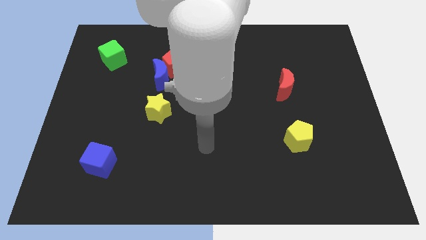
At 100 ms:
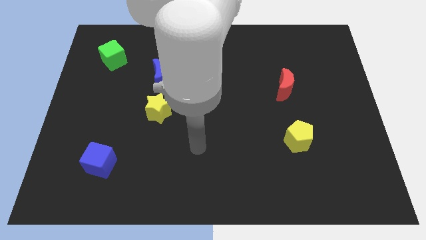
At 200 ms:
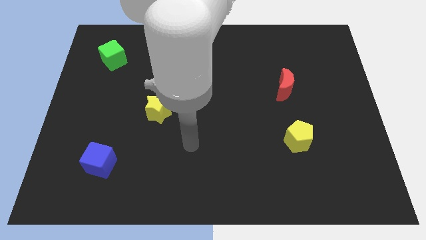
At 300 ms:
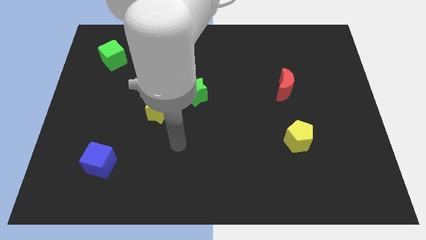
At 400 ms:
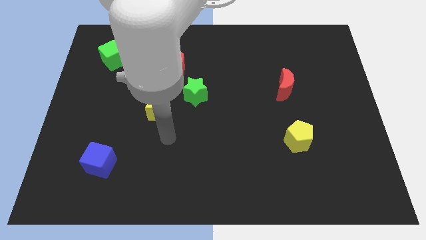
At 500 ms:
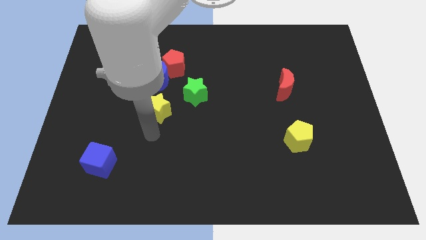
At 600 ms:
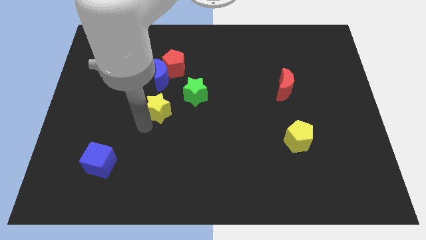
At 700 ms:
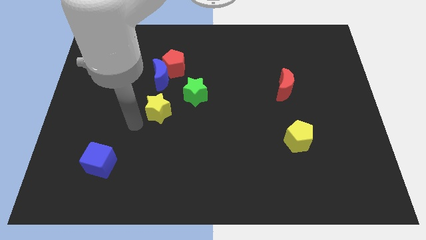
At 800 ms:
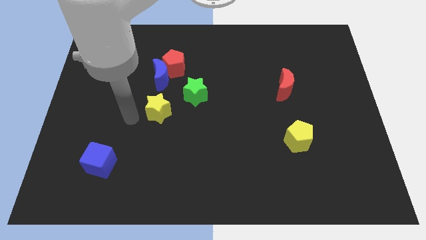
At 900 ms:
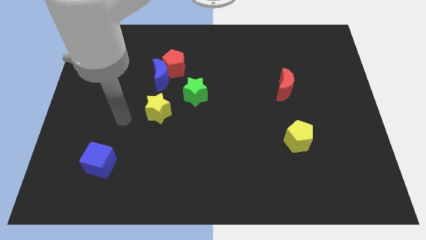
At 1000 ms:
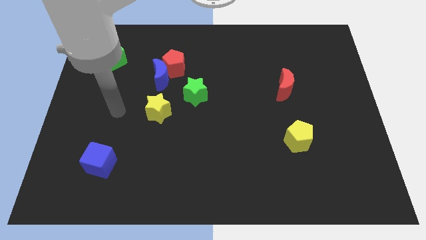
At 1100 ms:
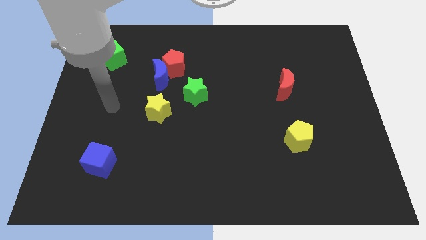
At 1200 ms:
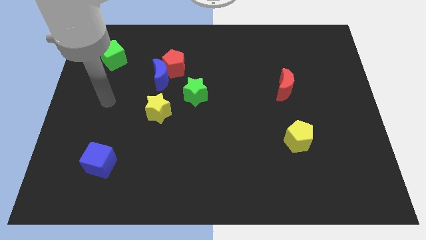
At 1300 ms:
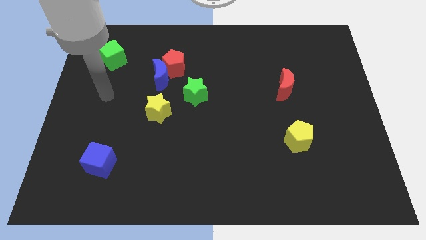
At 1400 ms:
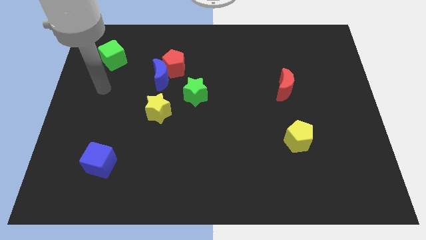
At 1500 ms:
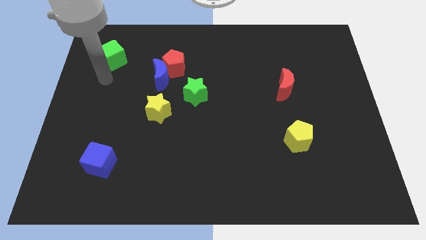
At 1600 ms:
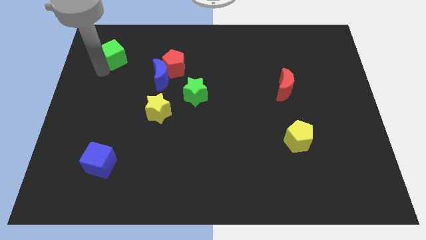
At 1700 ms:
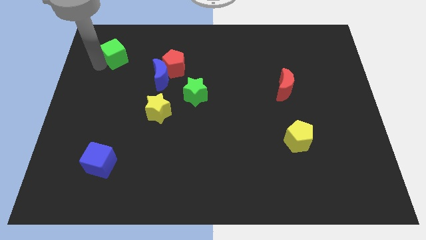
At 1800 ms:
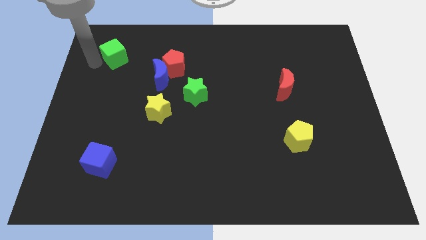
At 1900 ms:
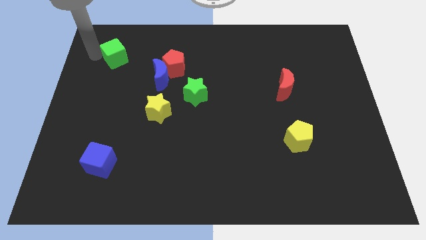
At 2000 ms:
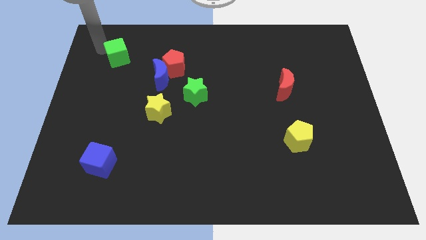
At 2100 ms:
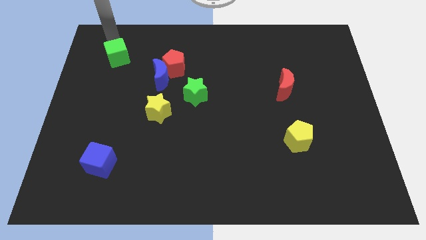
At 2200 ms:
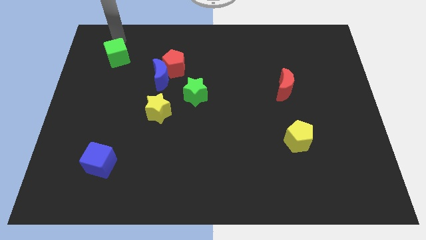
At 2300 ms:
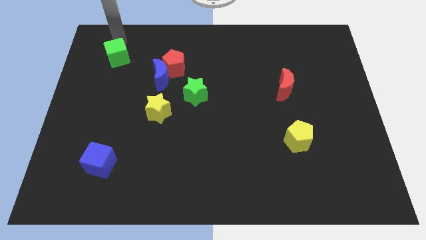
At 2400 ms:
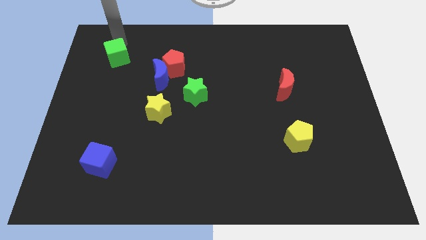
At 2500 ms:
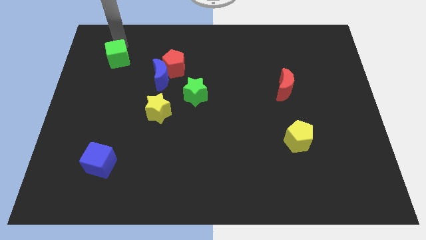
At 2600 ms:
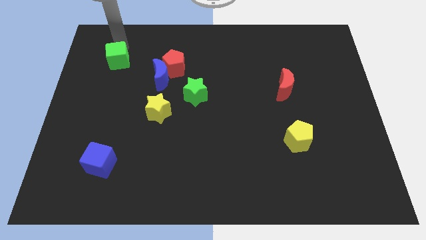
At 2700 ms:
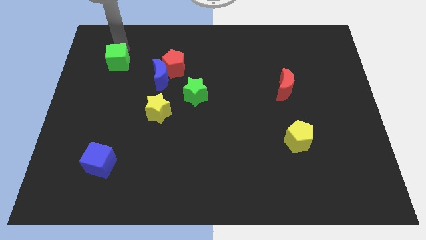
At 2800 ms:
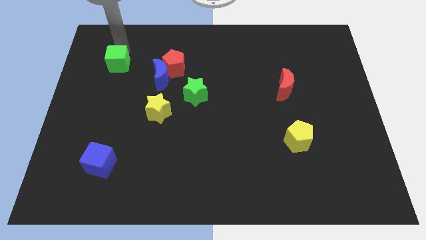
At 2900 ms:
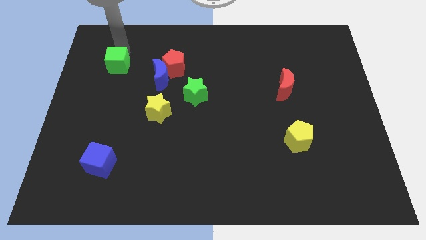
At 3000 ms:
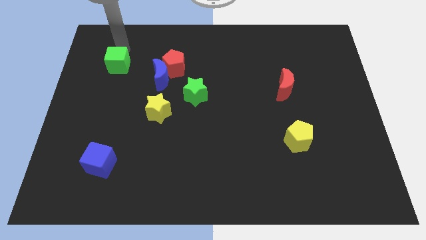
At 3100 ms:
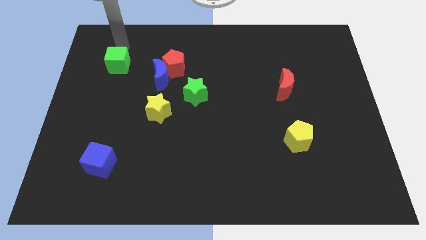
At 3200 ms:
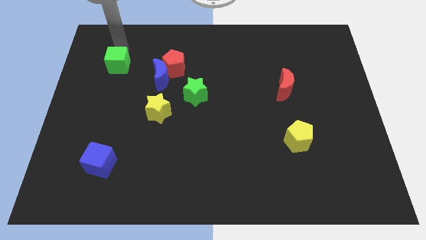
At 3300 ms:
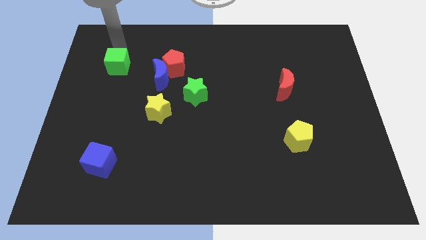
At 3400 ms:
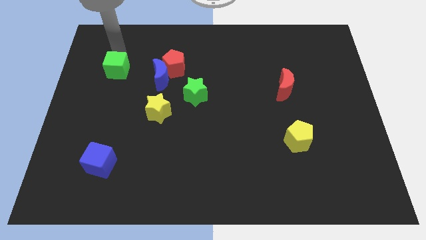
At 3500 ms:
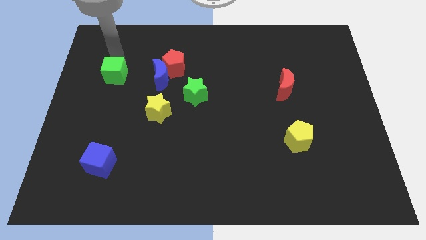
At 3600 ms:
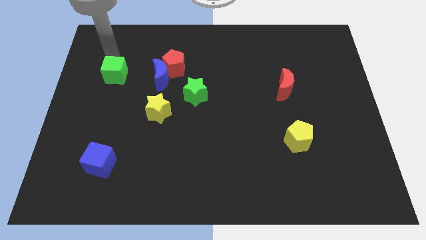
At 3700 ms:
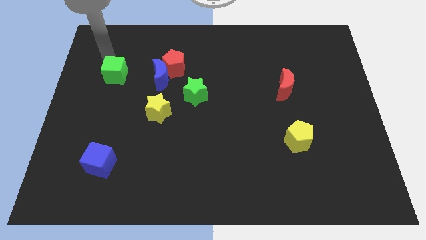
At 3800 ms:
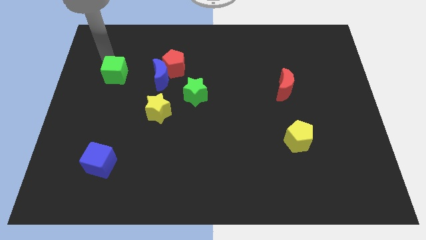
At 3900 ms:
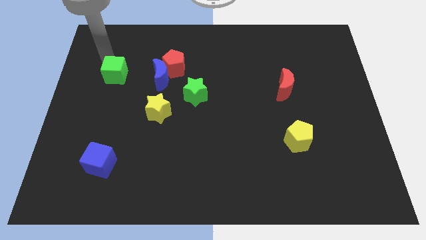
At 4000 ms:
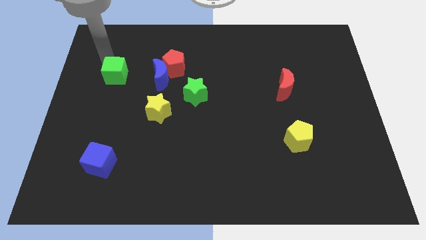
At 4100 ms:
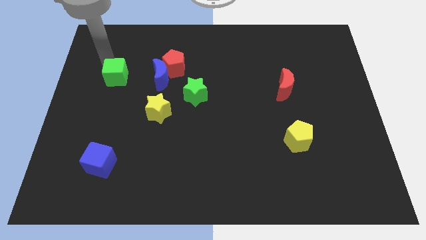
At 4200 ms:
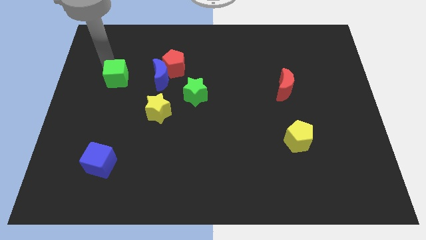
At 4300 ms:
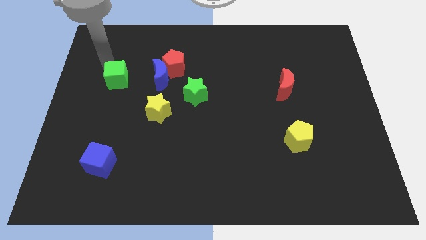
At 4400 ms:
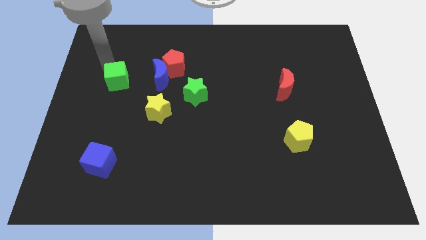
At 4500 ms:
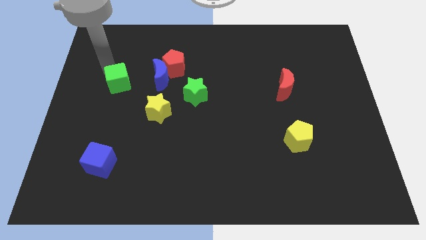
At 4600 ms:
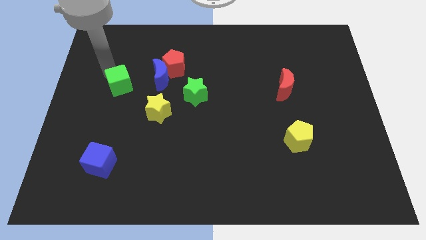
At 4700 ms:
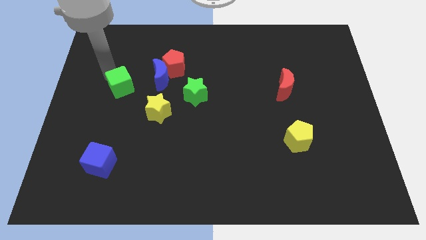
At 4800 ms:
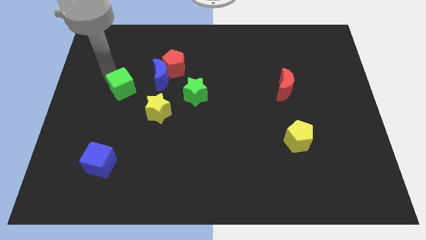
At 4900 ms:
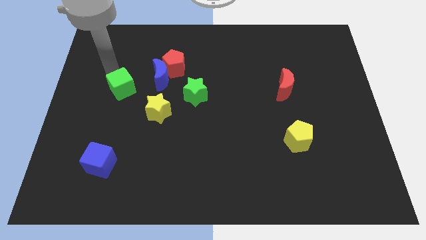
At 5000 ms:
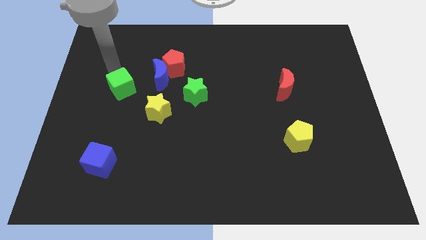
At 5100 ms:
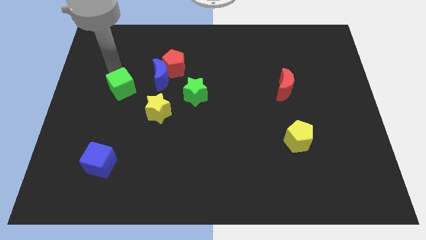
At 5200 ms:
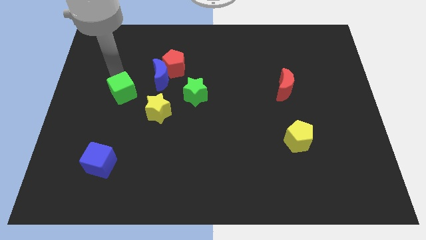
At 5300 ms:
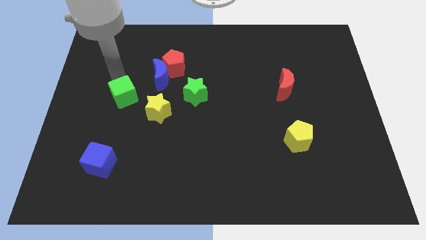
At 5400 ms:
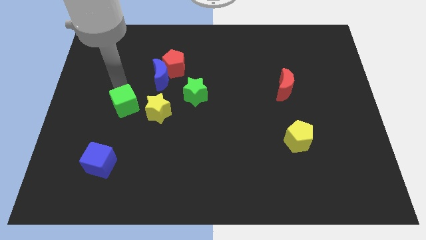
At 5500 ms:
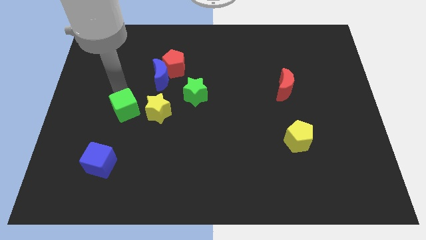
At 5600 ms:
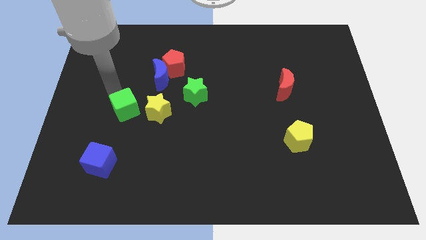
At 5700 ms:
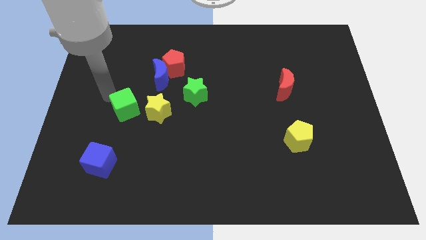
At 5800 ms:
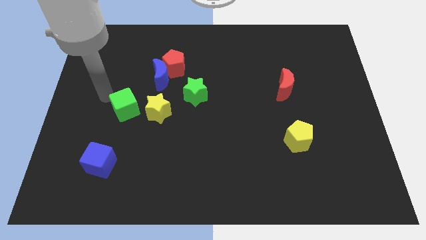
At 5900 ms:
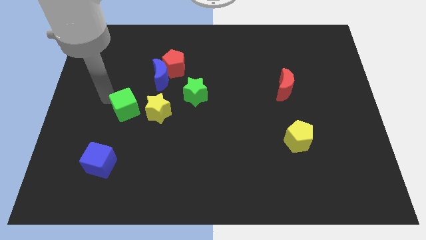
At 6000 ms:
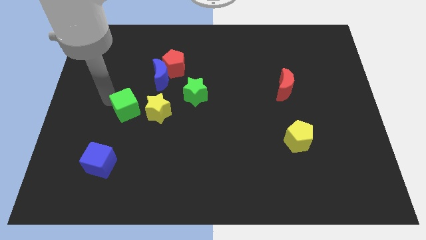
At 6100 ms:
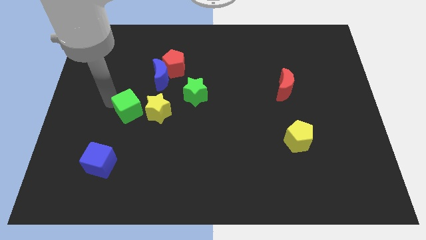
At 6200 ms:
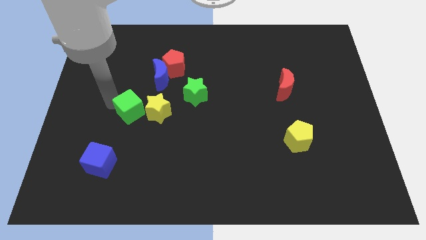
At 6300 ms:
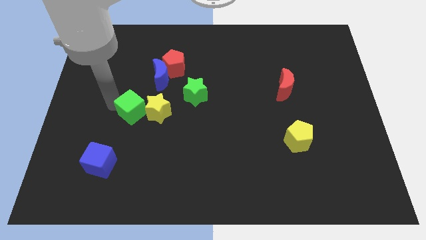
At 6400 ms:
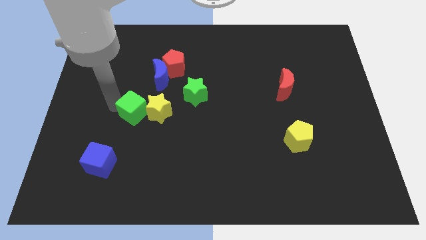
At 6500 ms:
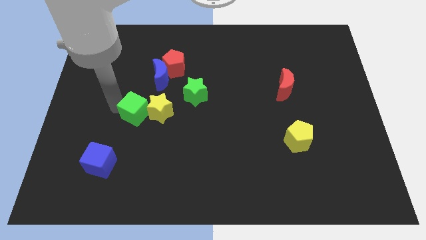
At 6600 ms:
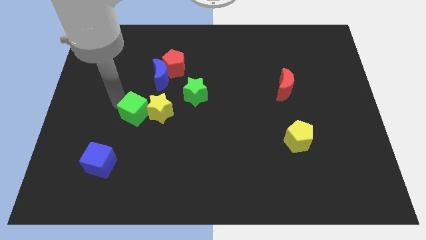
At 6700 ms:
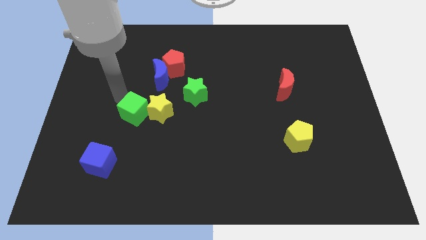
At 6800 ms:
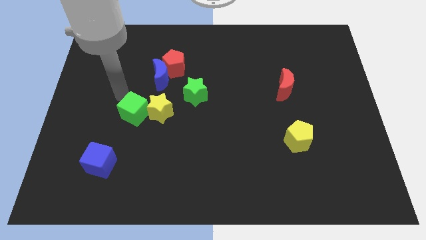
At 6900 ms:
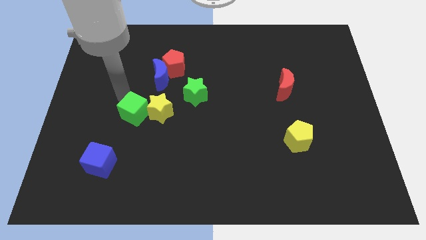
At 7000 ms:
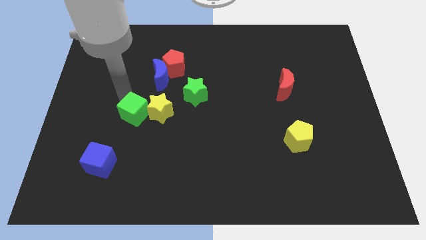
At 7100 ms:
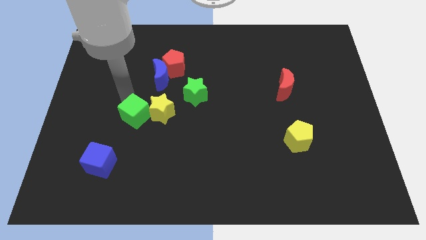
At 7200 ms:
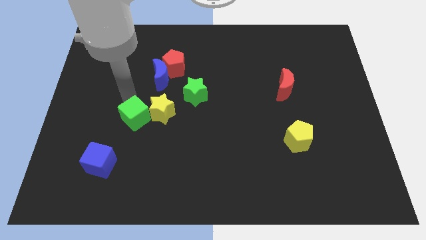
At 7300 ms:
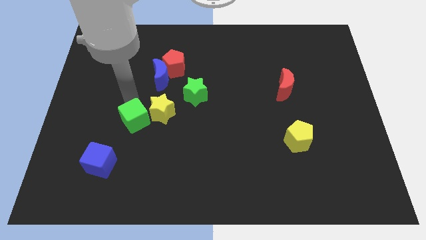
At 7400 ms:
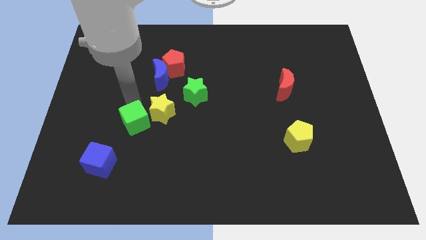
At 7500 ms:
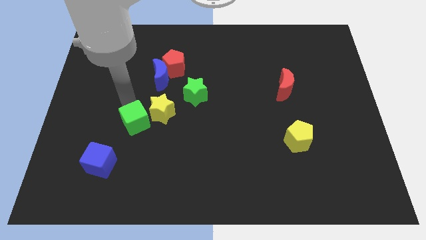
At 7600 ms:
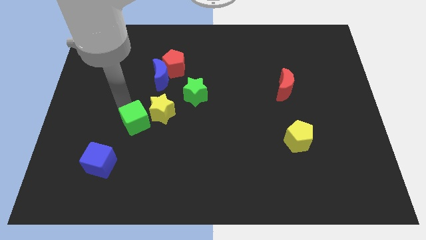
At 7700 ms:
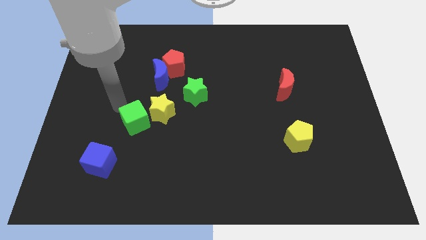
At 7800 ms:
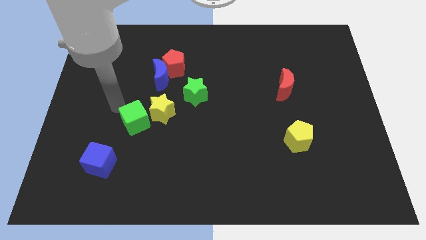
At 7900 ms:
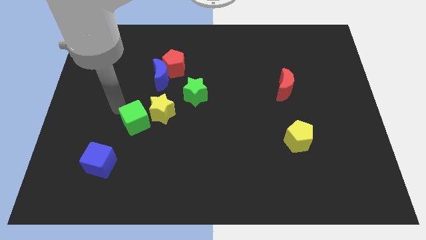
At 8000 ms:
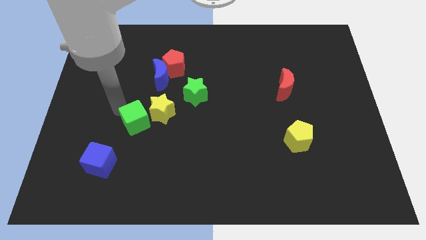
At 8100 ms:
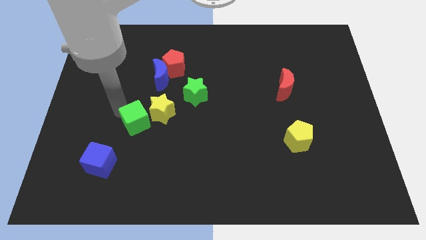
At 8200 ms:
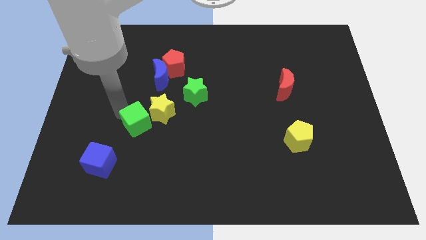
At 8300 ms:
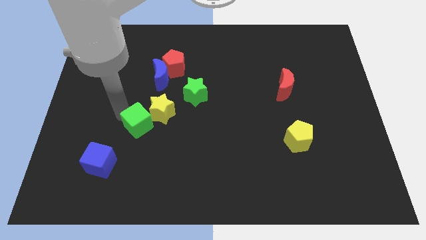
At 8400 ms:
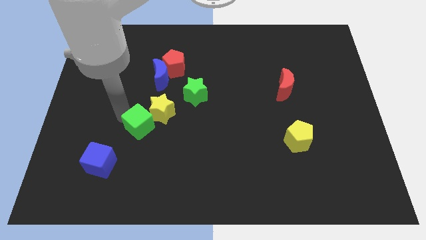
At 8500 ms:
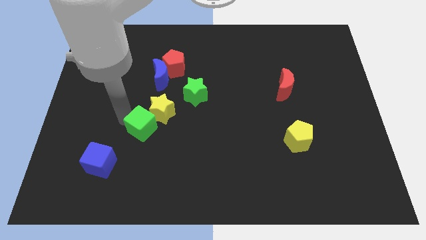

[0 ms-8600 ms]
move the green cube down and right
